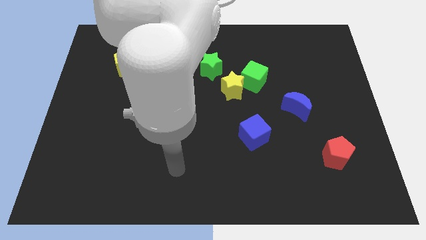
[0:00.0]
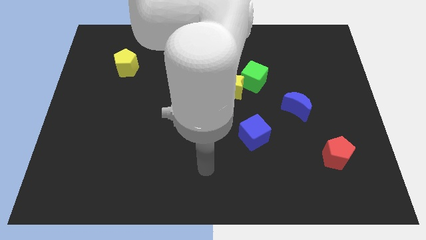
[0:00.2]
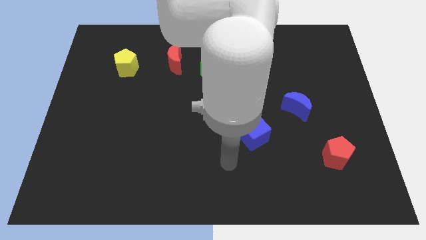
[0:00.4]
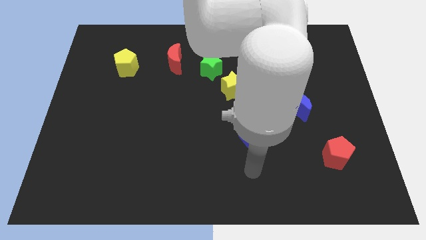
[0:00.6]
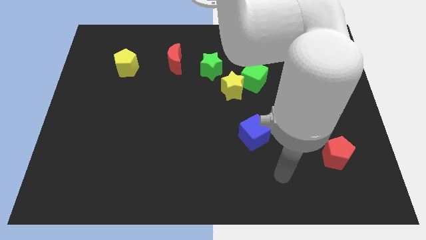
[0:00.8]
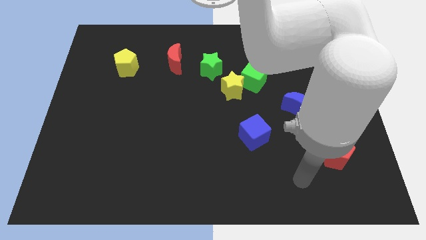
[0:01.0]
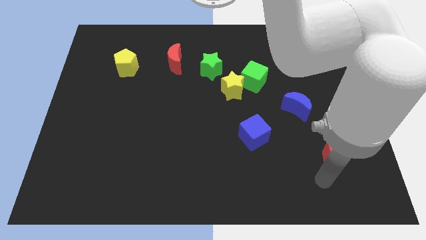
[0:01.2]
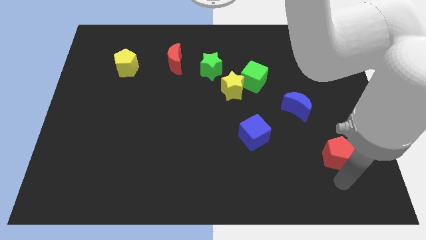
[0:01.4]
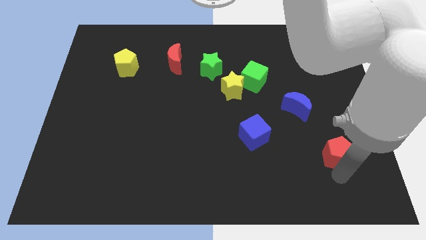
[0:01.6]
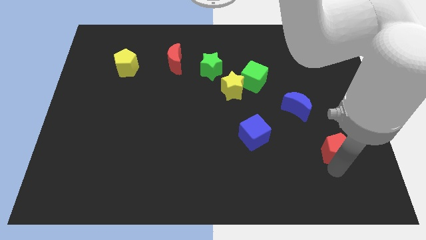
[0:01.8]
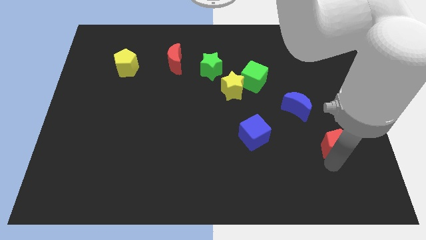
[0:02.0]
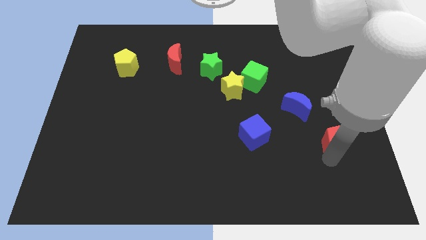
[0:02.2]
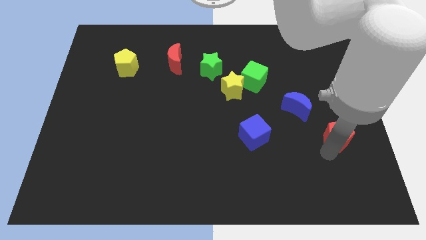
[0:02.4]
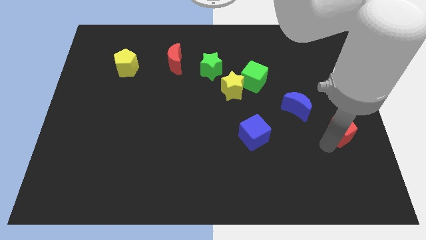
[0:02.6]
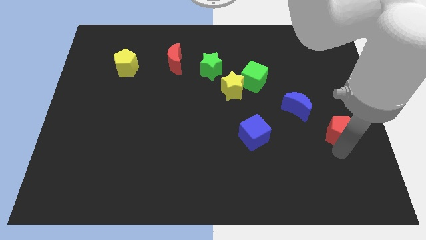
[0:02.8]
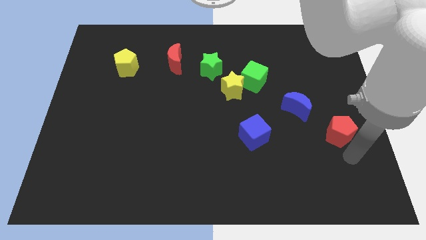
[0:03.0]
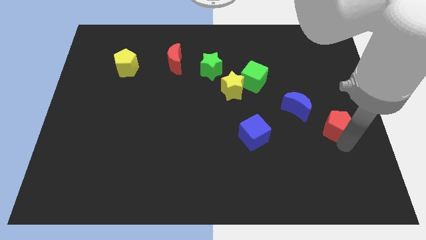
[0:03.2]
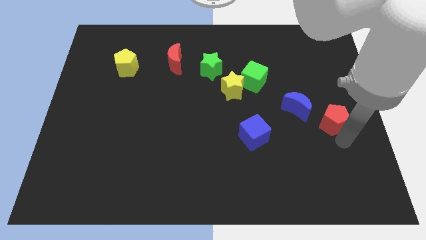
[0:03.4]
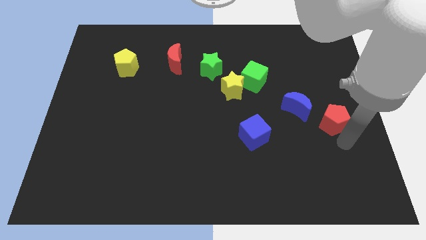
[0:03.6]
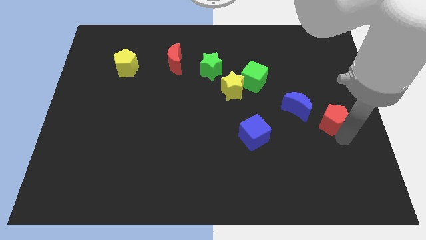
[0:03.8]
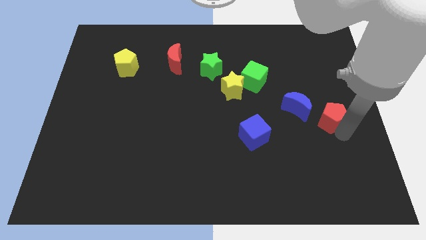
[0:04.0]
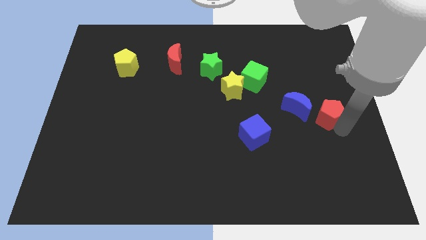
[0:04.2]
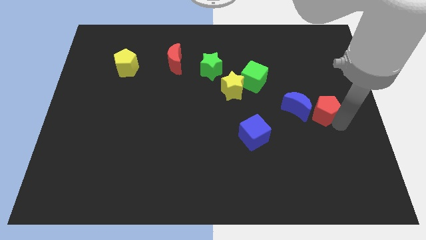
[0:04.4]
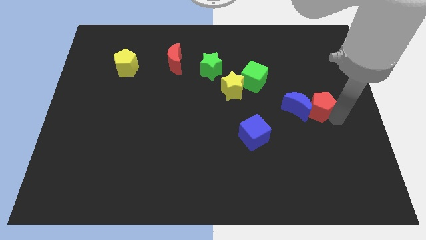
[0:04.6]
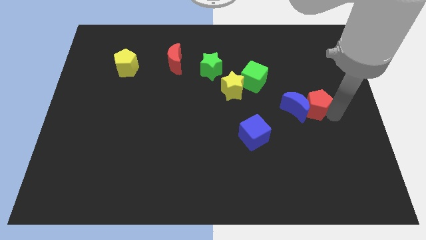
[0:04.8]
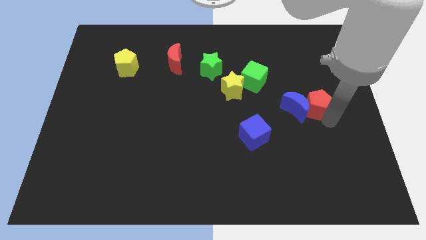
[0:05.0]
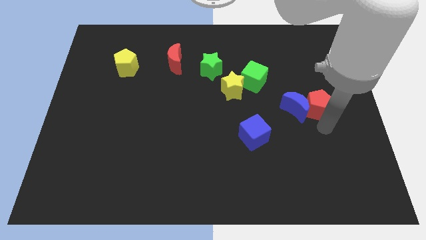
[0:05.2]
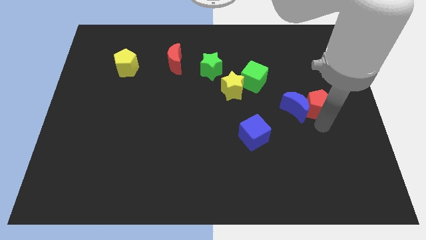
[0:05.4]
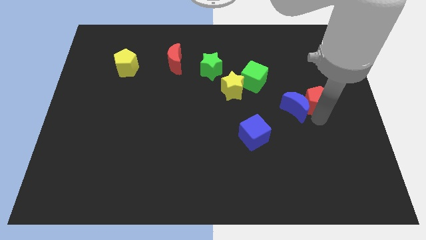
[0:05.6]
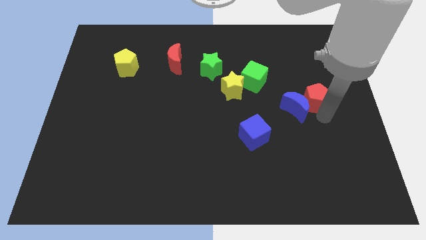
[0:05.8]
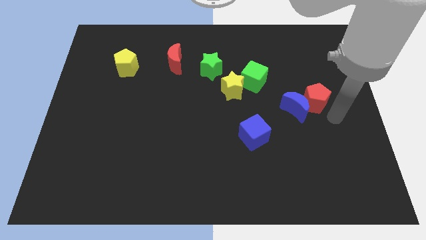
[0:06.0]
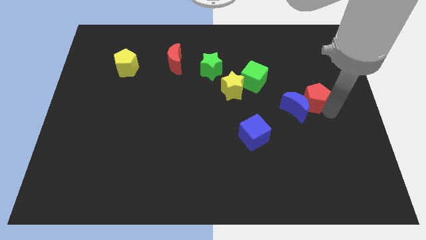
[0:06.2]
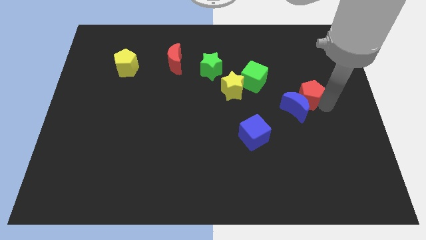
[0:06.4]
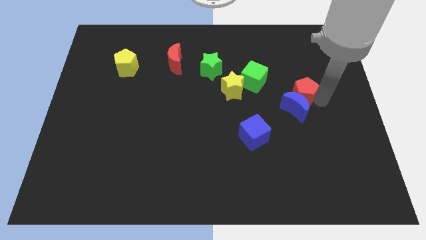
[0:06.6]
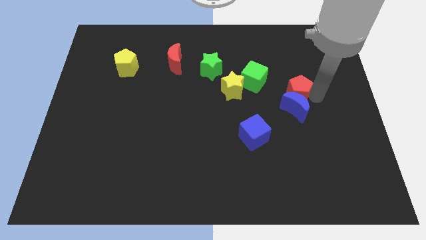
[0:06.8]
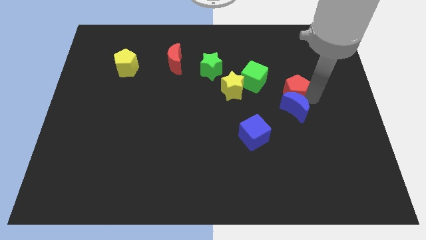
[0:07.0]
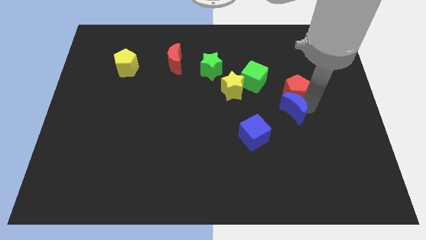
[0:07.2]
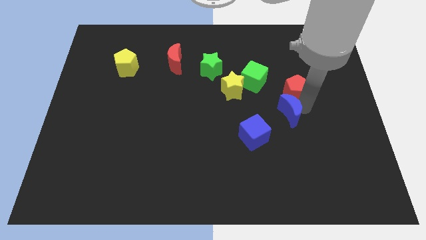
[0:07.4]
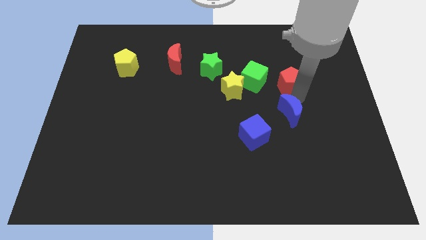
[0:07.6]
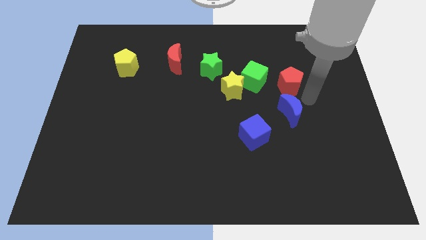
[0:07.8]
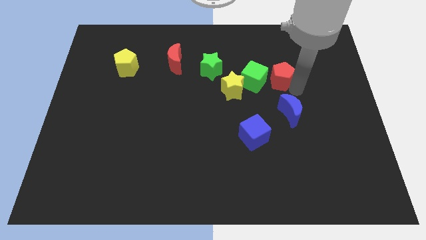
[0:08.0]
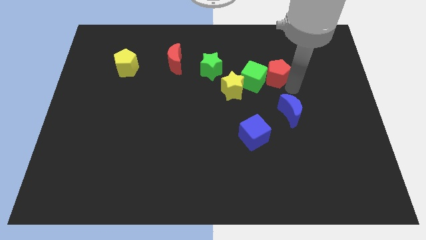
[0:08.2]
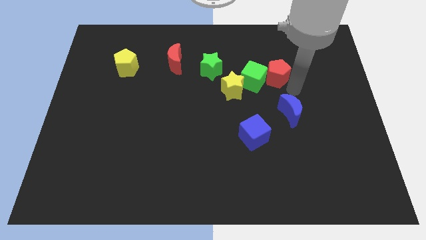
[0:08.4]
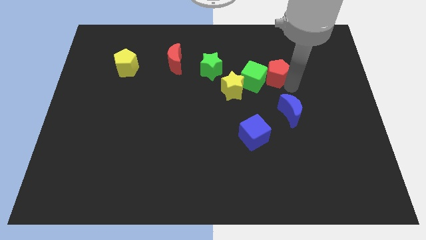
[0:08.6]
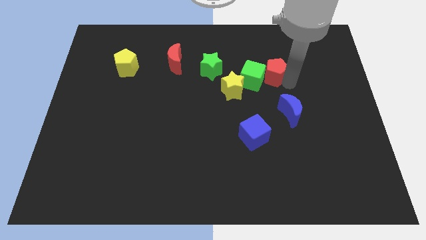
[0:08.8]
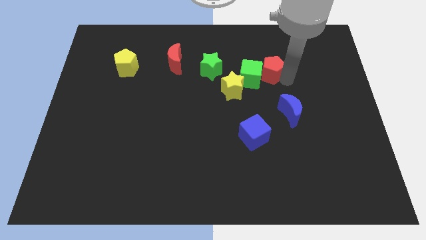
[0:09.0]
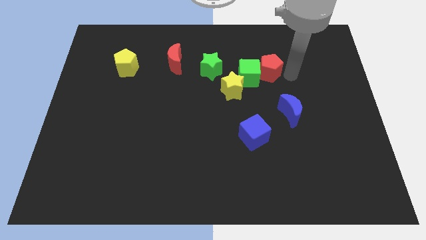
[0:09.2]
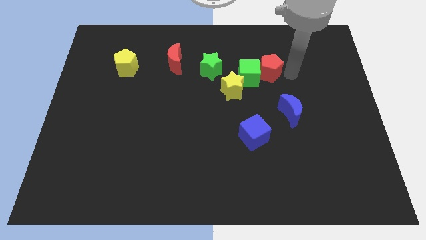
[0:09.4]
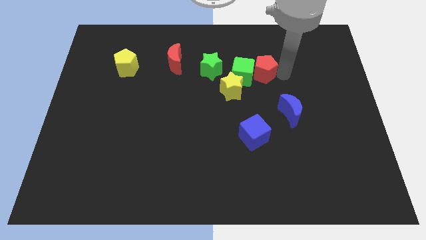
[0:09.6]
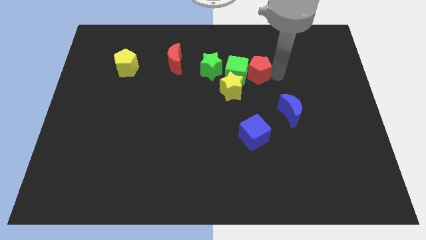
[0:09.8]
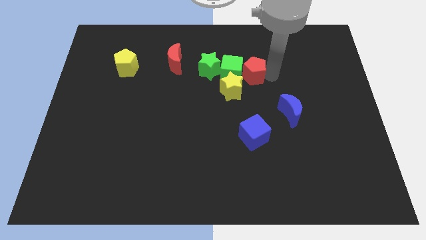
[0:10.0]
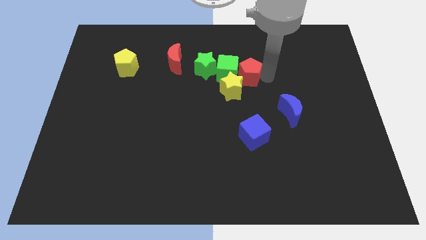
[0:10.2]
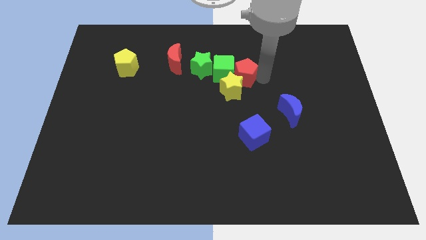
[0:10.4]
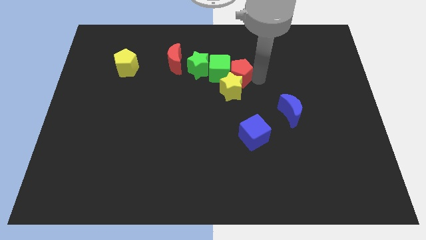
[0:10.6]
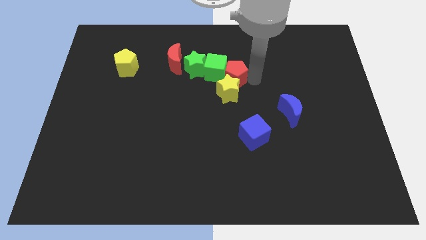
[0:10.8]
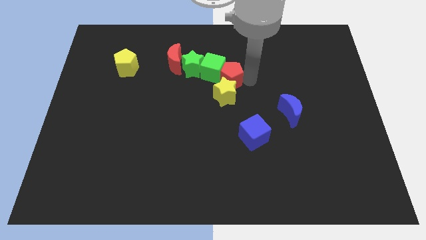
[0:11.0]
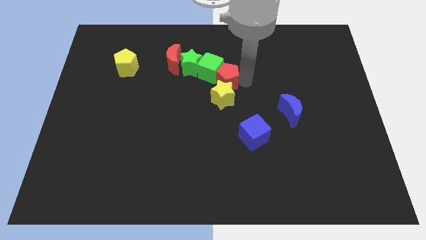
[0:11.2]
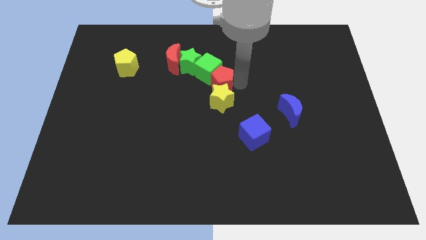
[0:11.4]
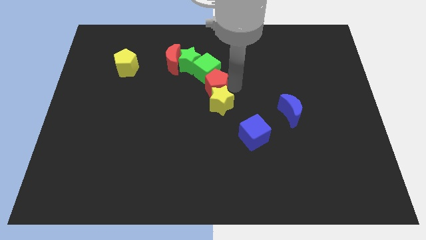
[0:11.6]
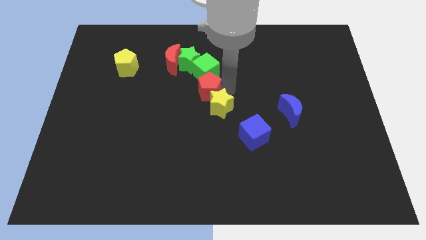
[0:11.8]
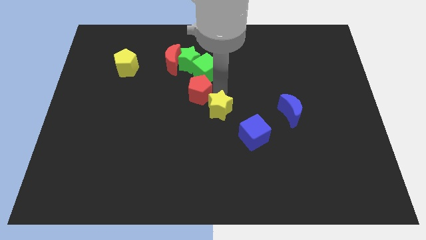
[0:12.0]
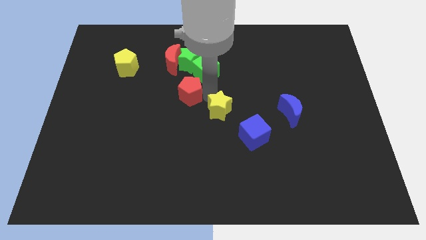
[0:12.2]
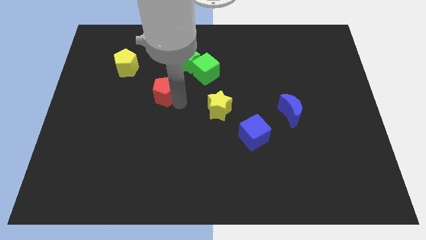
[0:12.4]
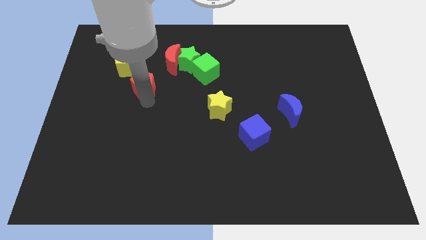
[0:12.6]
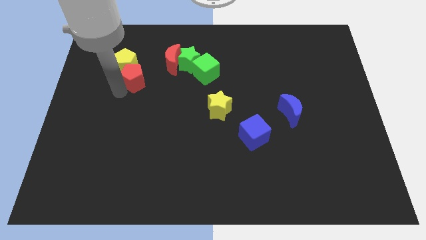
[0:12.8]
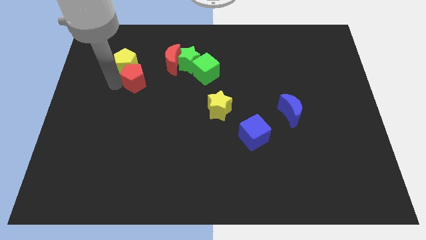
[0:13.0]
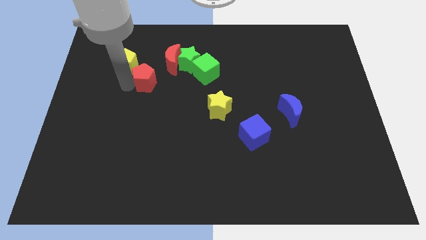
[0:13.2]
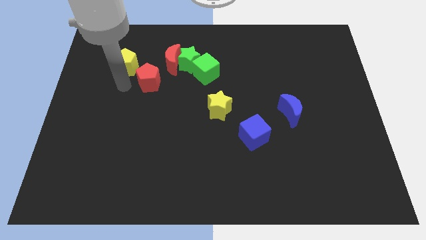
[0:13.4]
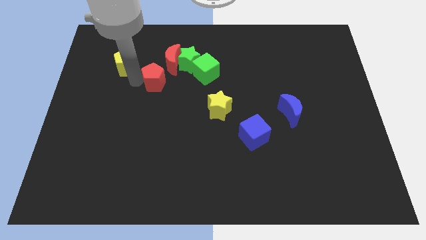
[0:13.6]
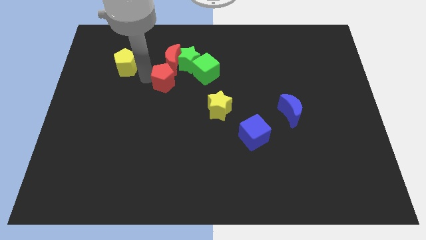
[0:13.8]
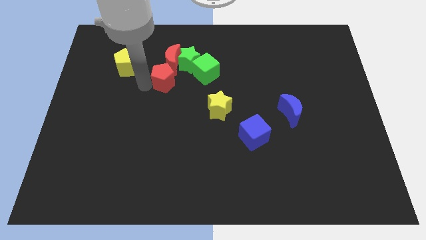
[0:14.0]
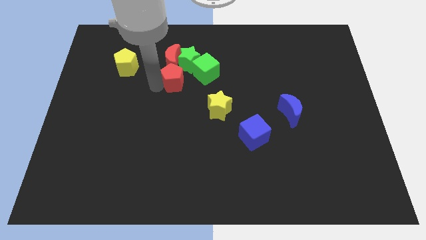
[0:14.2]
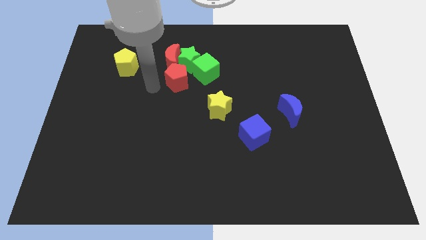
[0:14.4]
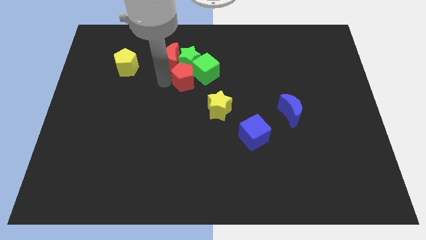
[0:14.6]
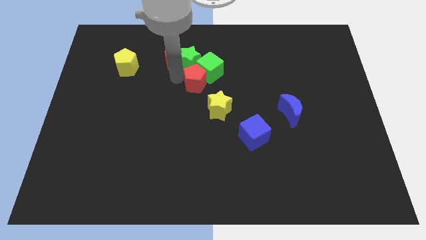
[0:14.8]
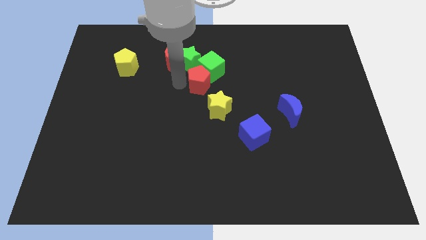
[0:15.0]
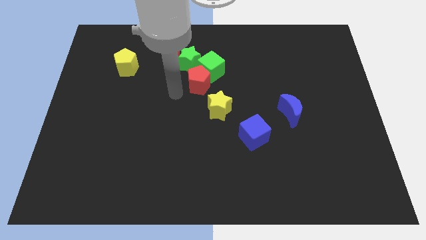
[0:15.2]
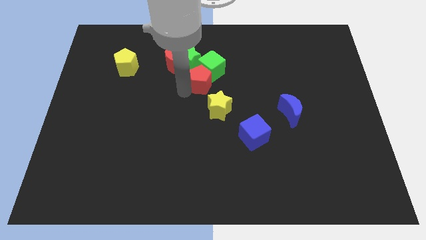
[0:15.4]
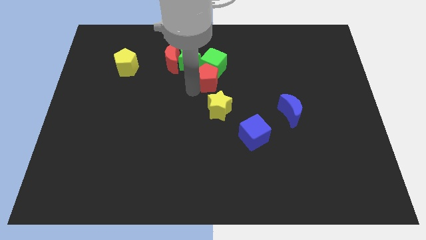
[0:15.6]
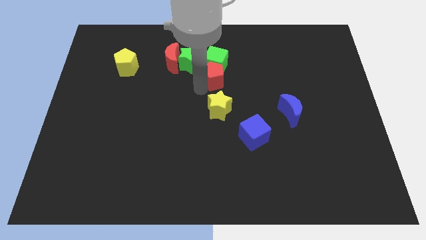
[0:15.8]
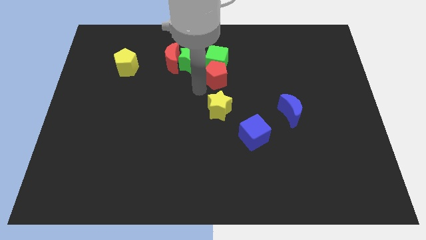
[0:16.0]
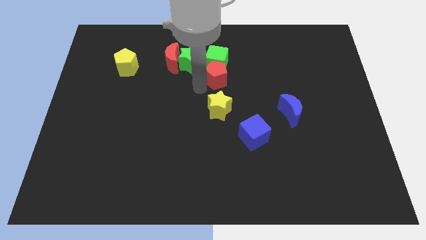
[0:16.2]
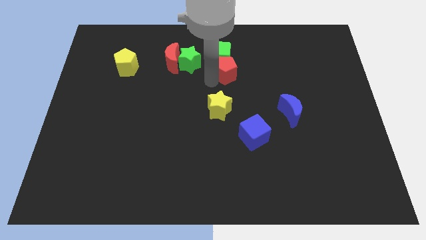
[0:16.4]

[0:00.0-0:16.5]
slide the red pentagon right of the red moon
